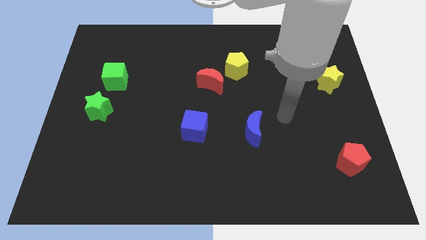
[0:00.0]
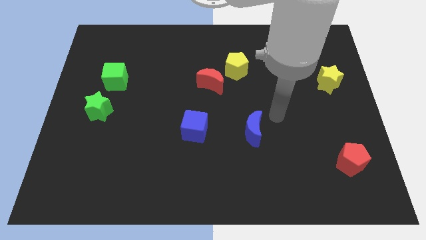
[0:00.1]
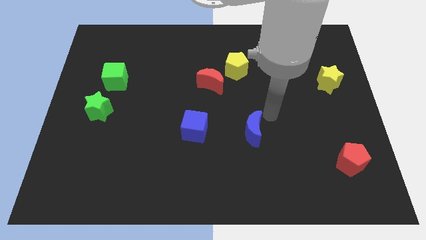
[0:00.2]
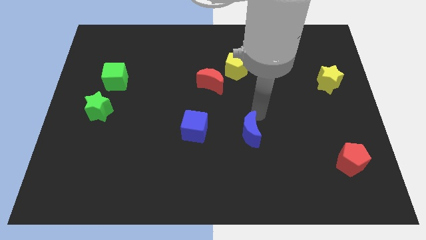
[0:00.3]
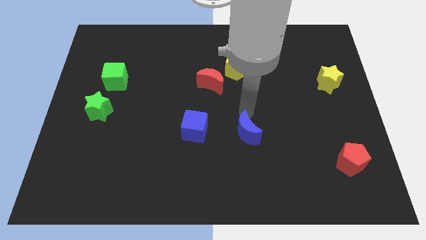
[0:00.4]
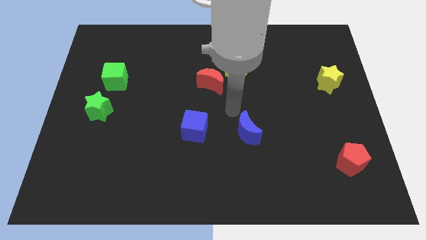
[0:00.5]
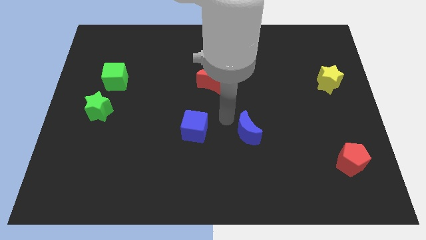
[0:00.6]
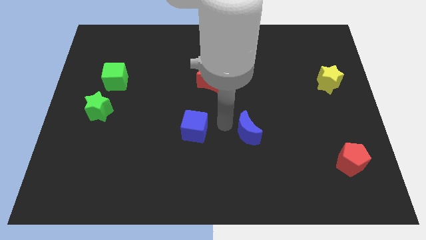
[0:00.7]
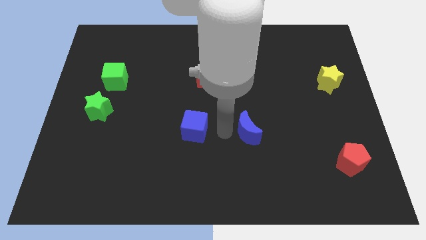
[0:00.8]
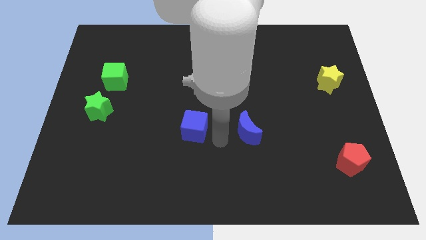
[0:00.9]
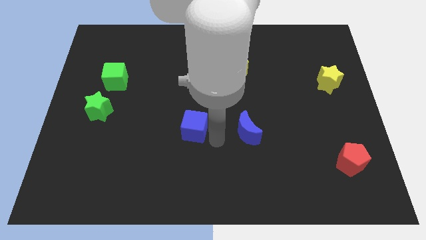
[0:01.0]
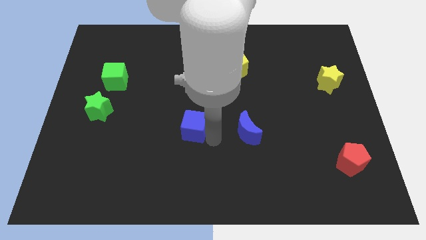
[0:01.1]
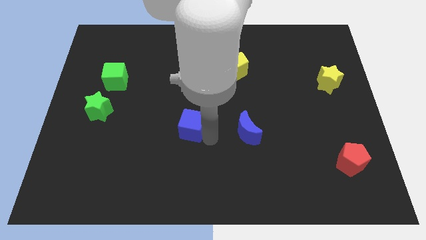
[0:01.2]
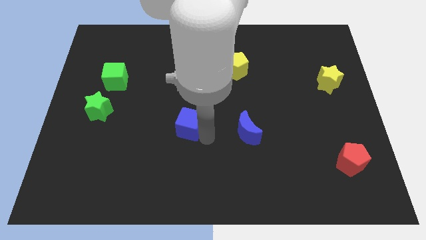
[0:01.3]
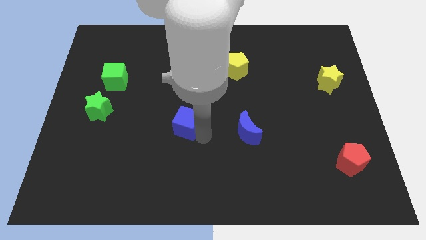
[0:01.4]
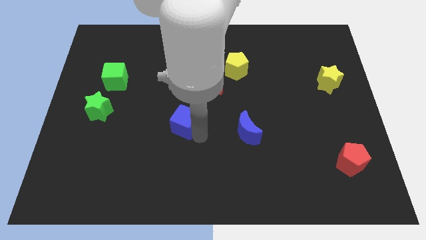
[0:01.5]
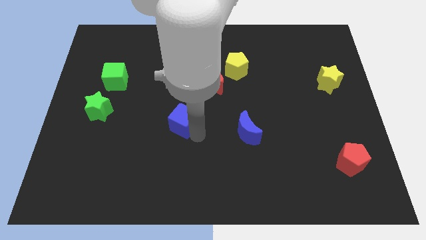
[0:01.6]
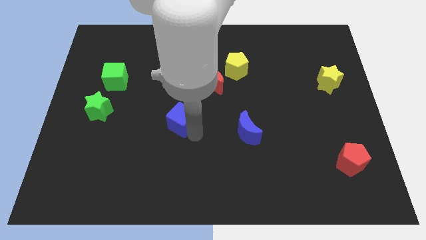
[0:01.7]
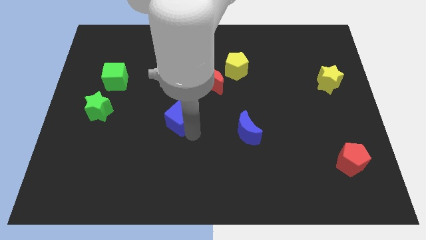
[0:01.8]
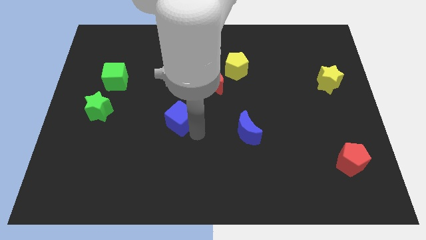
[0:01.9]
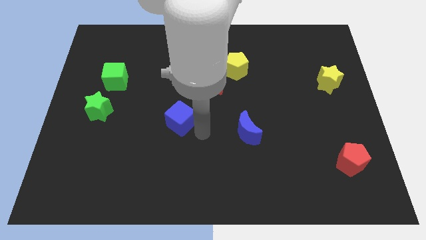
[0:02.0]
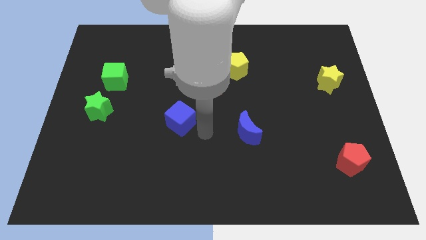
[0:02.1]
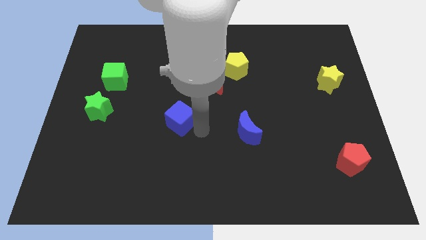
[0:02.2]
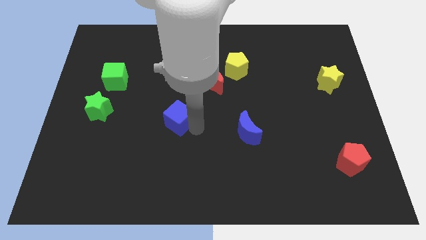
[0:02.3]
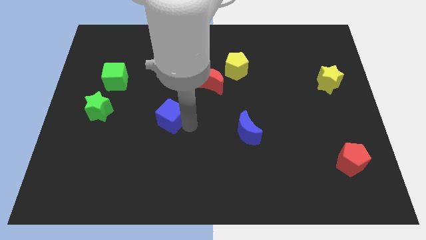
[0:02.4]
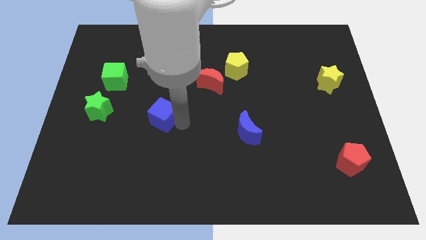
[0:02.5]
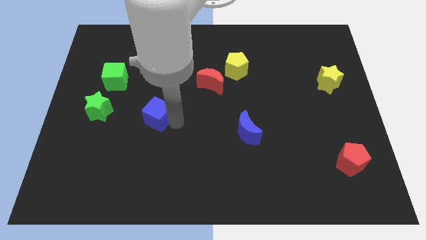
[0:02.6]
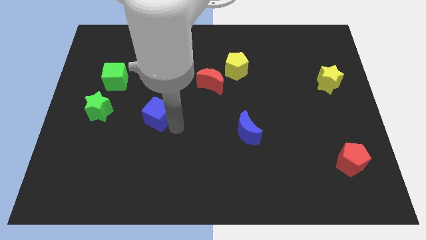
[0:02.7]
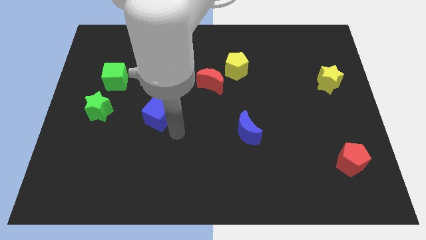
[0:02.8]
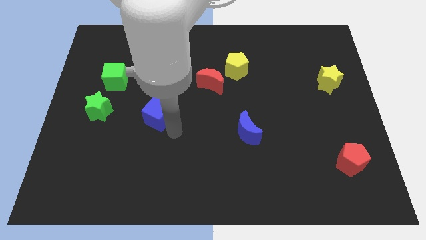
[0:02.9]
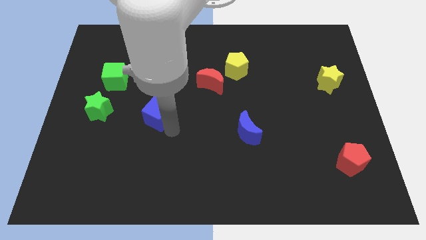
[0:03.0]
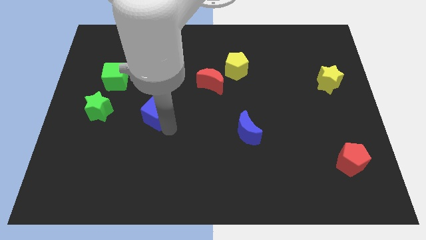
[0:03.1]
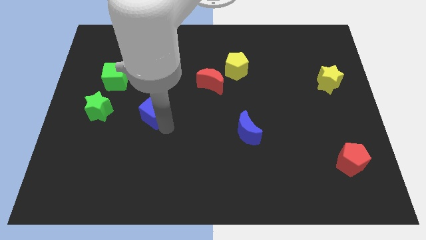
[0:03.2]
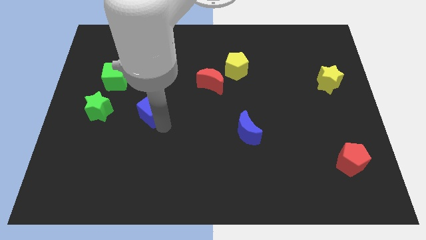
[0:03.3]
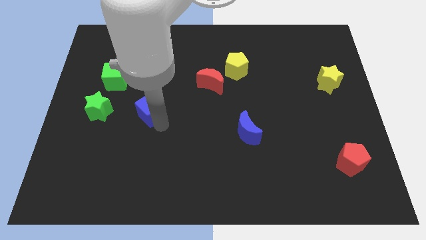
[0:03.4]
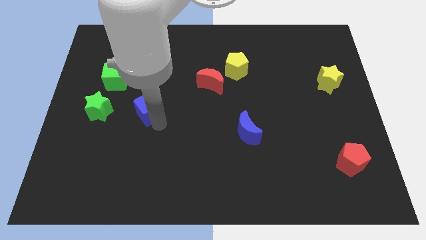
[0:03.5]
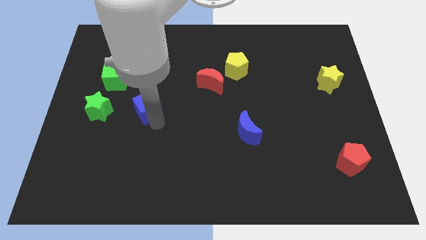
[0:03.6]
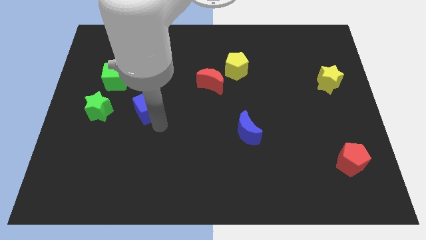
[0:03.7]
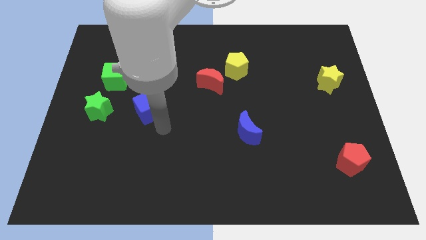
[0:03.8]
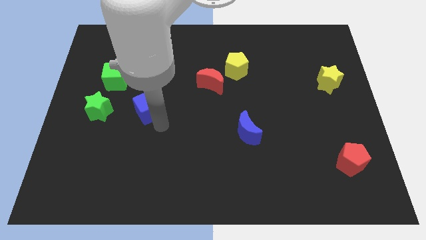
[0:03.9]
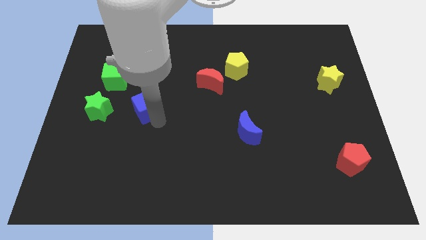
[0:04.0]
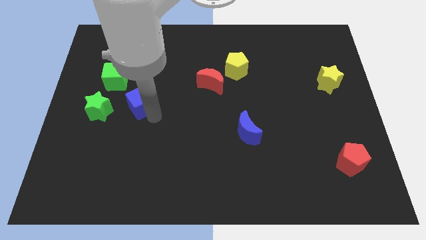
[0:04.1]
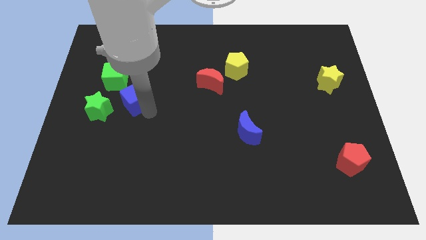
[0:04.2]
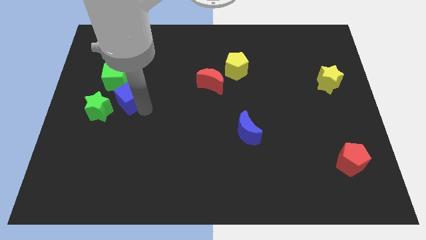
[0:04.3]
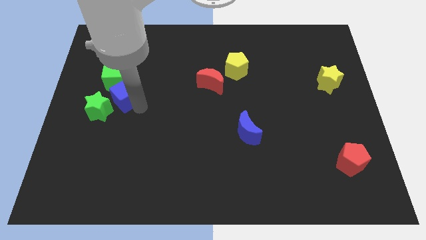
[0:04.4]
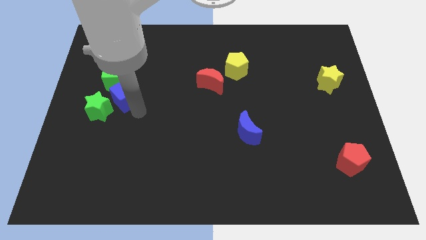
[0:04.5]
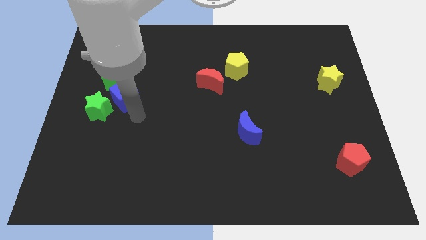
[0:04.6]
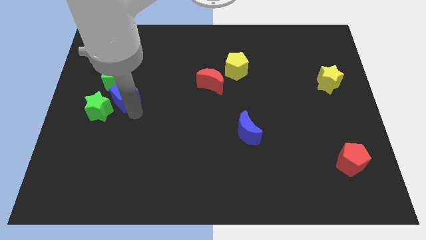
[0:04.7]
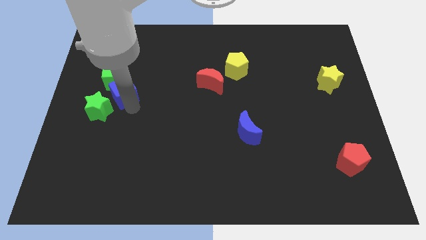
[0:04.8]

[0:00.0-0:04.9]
push the blue cube to the green cube

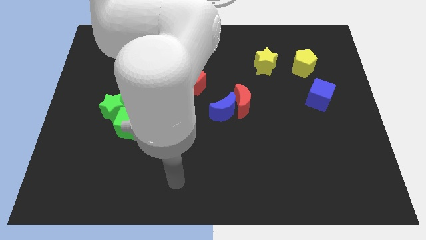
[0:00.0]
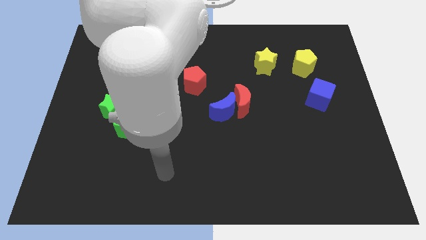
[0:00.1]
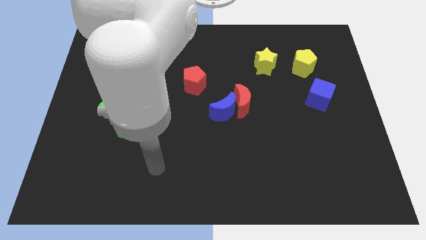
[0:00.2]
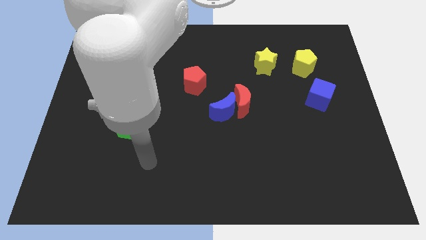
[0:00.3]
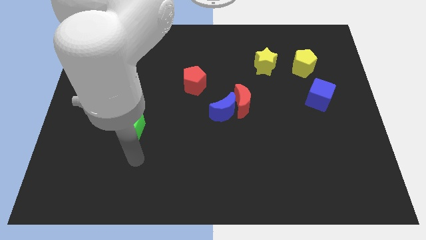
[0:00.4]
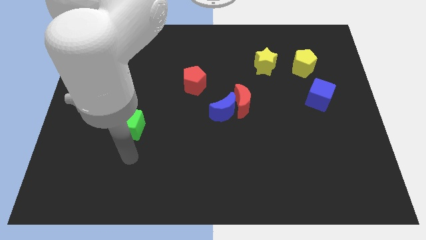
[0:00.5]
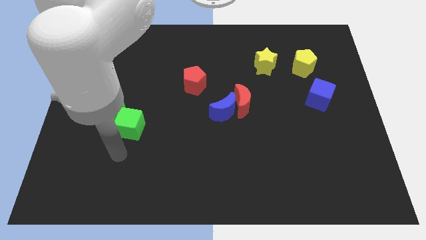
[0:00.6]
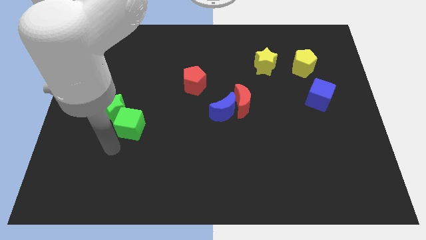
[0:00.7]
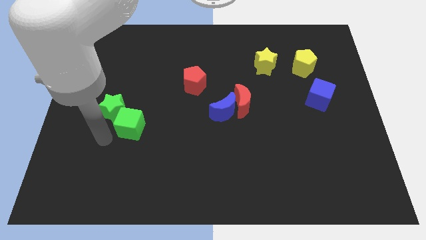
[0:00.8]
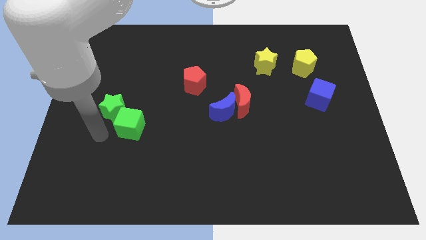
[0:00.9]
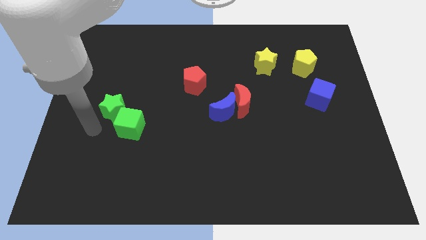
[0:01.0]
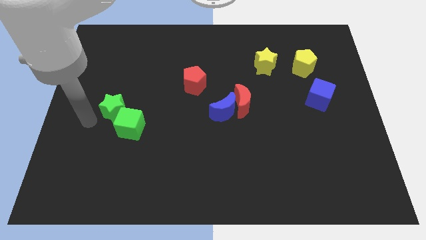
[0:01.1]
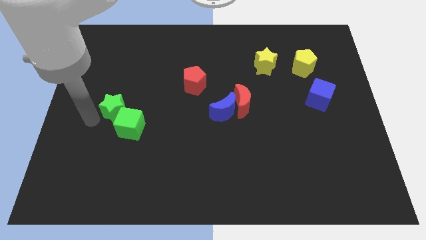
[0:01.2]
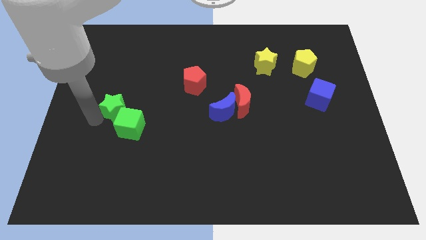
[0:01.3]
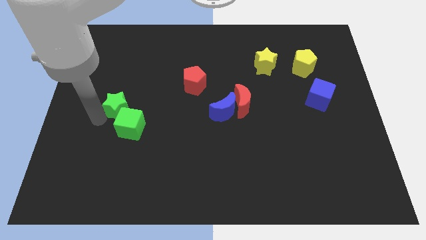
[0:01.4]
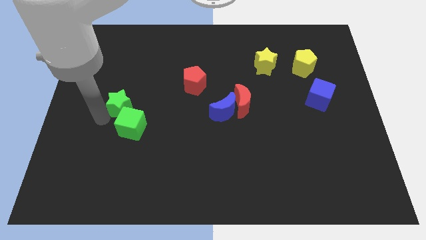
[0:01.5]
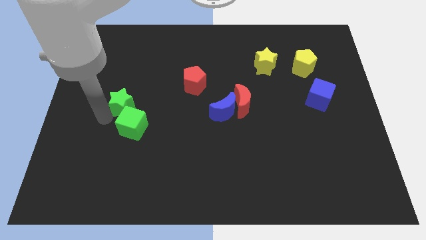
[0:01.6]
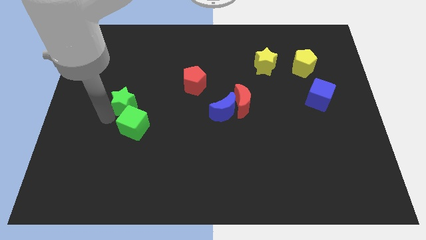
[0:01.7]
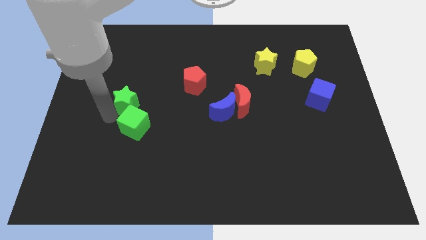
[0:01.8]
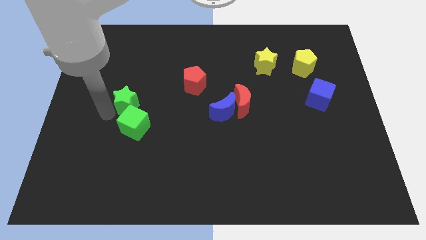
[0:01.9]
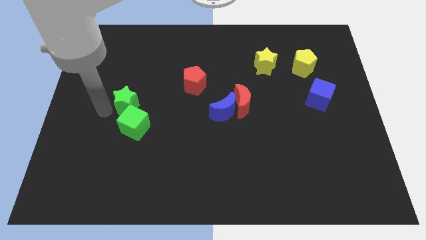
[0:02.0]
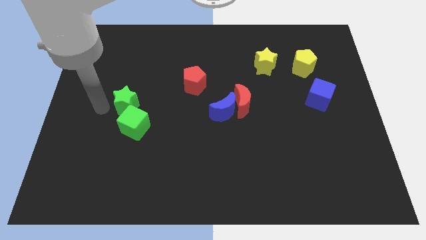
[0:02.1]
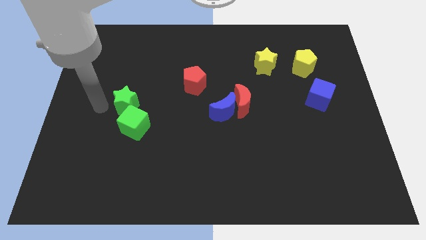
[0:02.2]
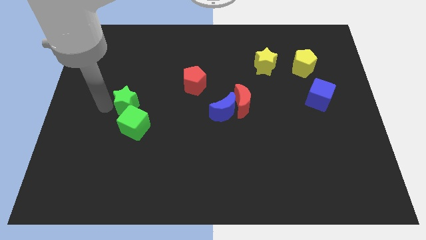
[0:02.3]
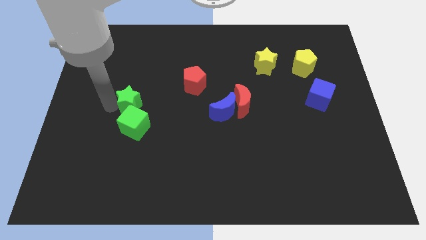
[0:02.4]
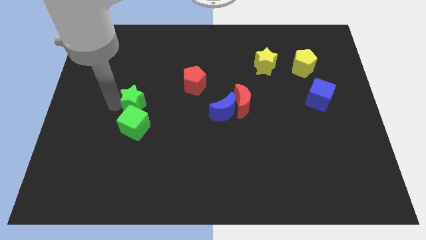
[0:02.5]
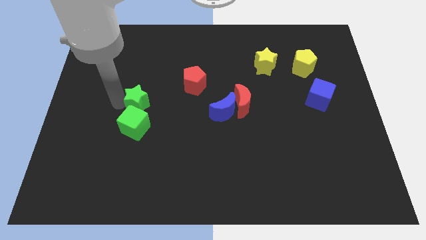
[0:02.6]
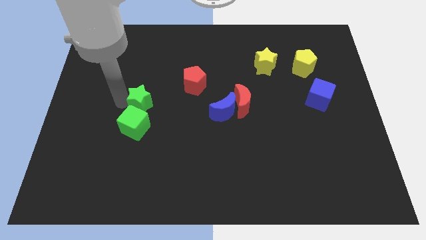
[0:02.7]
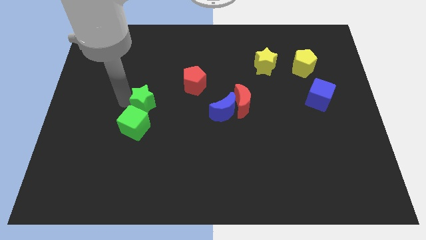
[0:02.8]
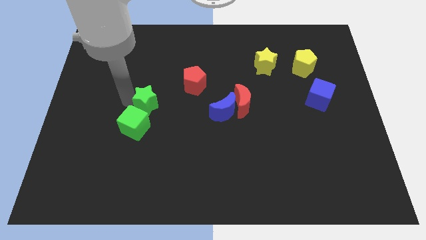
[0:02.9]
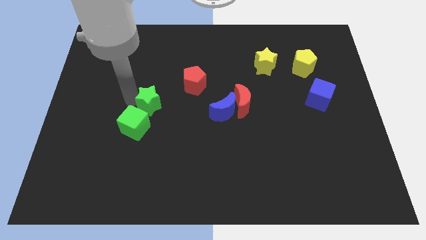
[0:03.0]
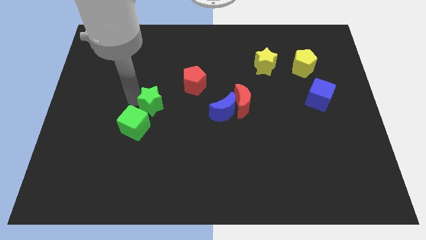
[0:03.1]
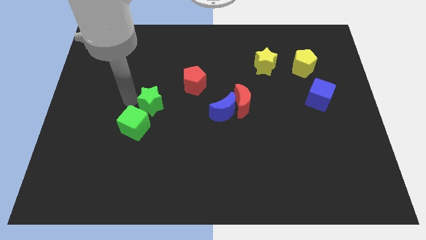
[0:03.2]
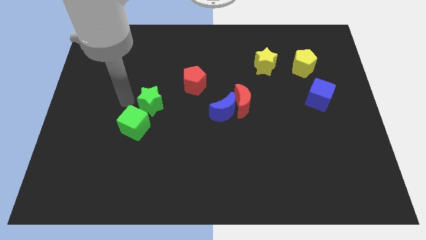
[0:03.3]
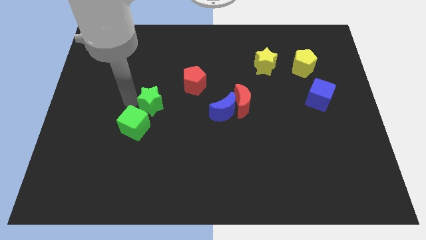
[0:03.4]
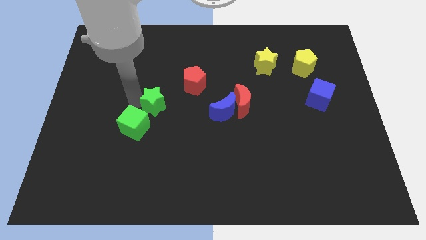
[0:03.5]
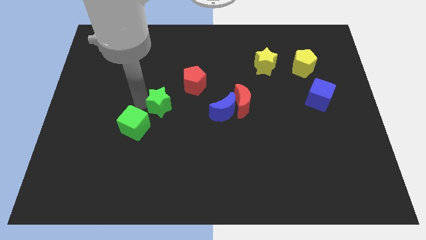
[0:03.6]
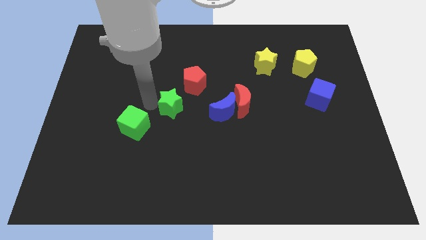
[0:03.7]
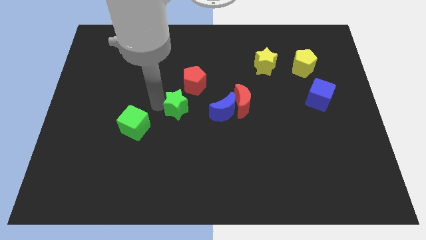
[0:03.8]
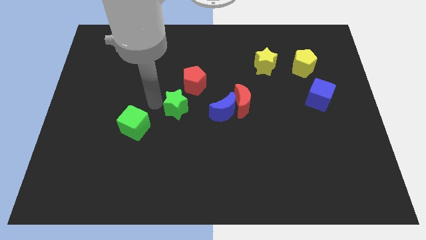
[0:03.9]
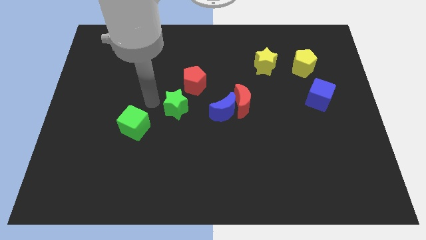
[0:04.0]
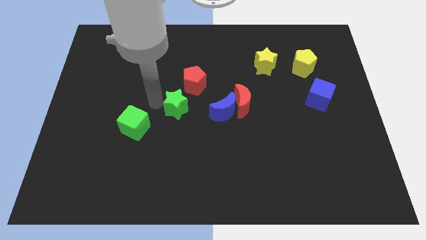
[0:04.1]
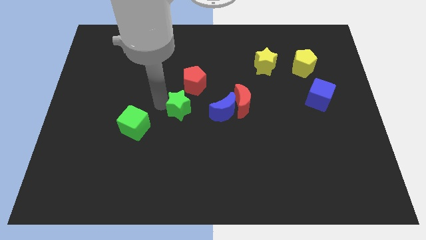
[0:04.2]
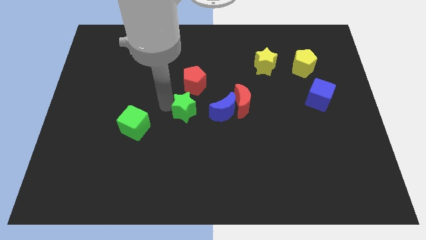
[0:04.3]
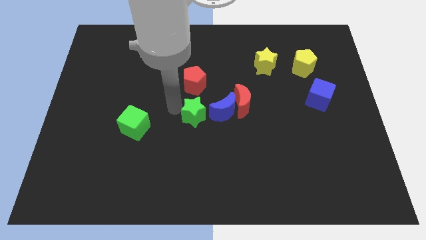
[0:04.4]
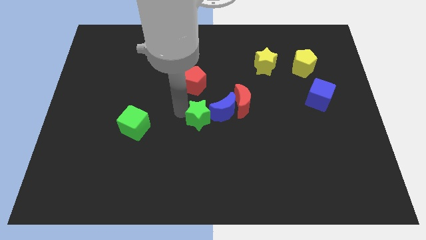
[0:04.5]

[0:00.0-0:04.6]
put the green star close to the blue moon
